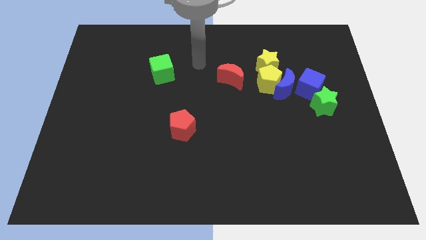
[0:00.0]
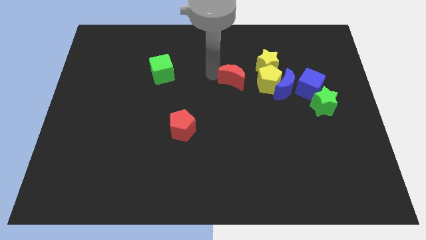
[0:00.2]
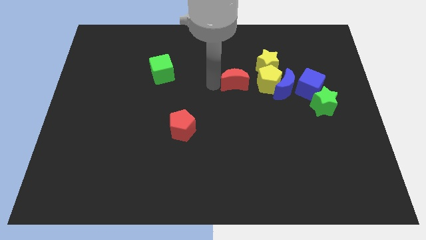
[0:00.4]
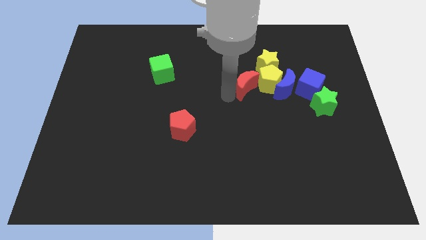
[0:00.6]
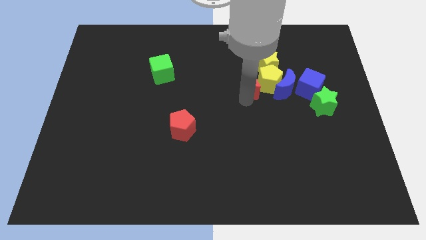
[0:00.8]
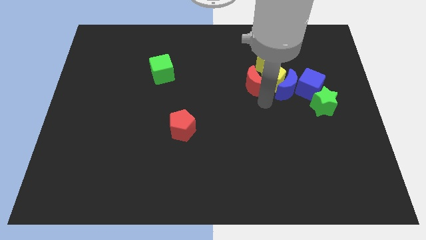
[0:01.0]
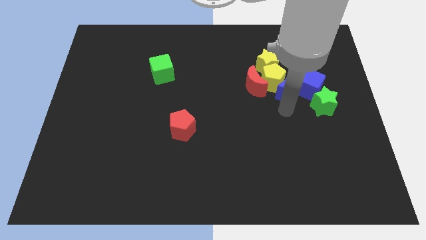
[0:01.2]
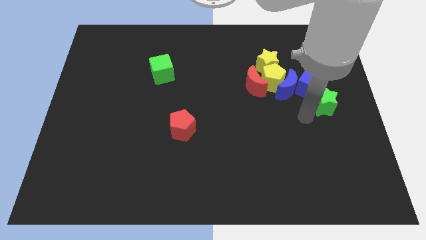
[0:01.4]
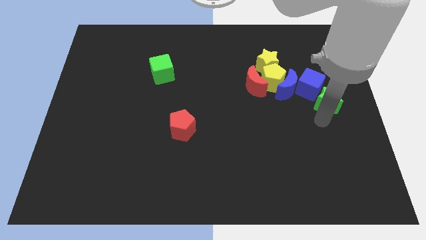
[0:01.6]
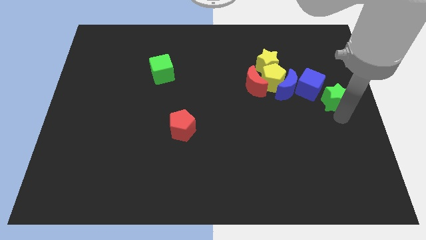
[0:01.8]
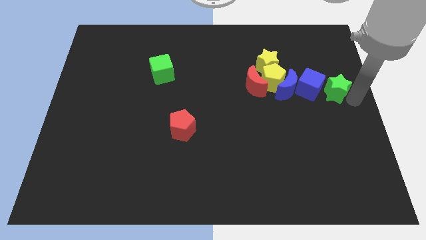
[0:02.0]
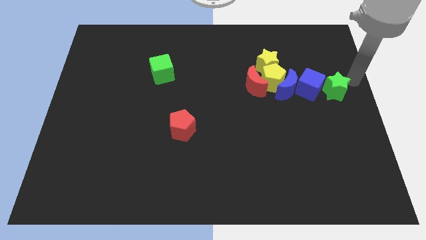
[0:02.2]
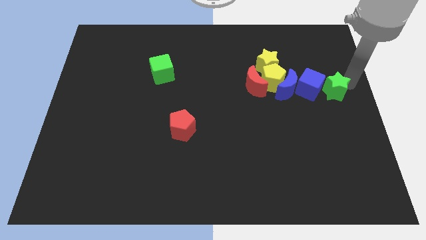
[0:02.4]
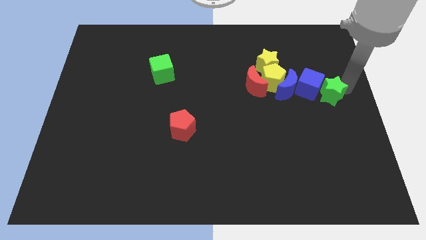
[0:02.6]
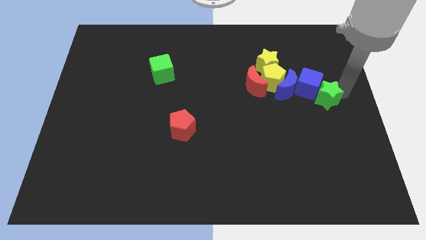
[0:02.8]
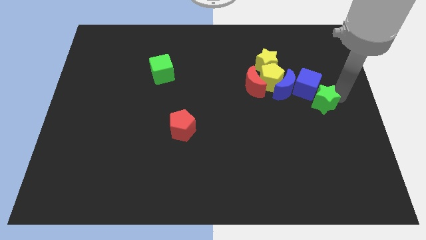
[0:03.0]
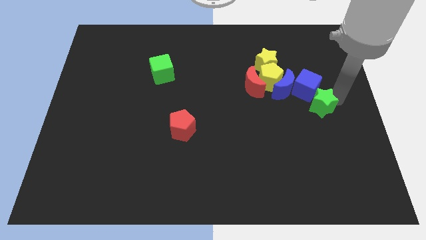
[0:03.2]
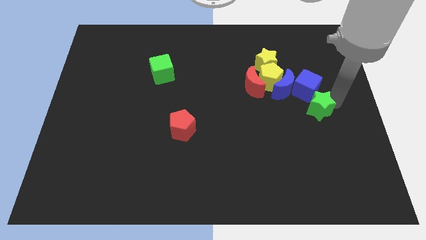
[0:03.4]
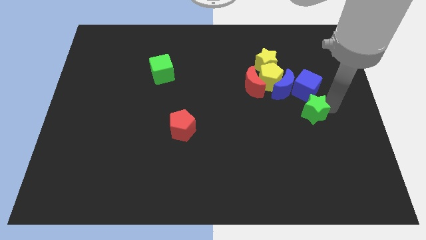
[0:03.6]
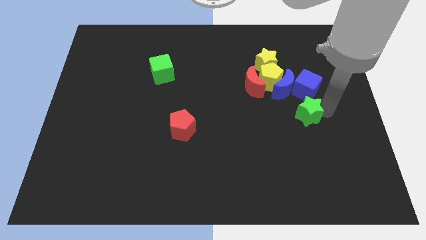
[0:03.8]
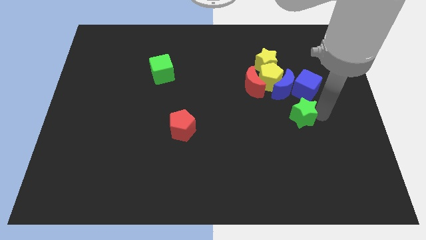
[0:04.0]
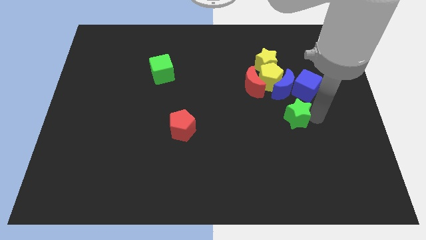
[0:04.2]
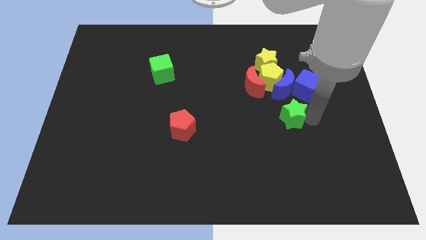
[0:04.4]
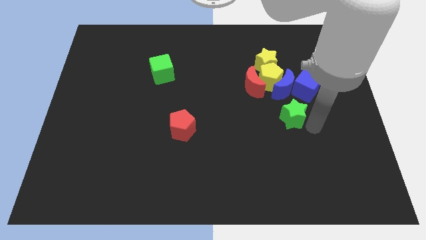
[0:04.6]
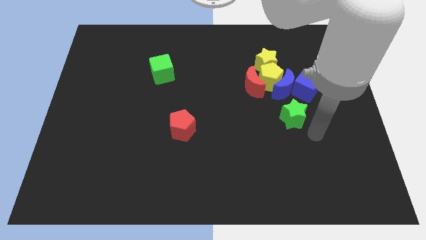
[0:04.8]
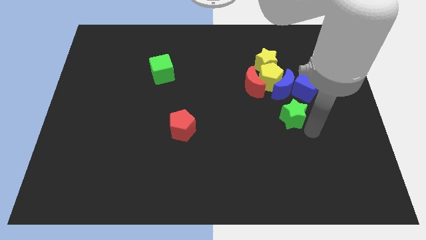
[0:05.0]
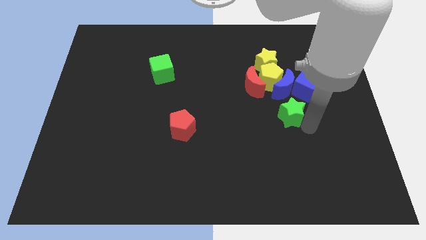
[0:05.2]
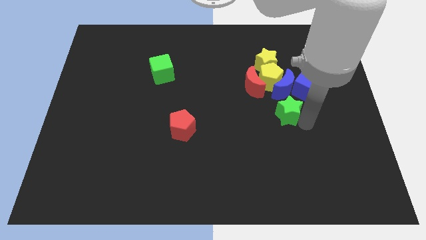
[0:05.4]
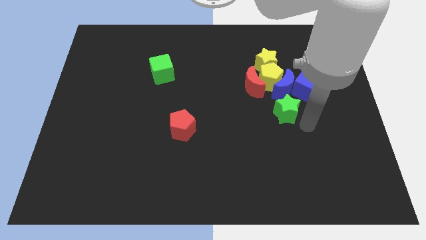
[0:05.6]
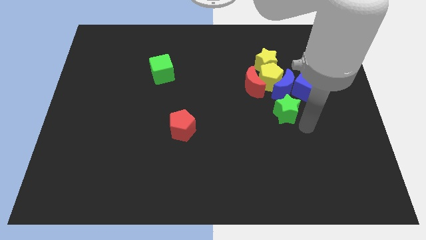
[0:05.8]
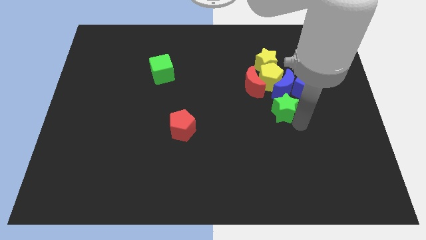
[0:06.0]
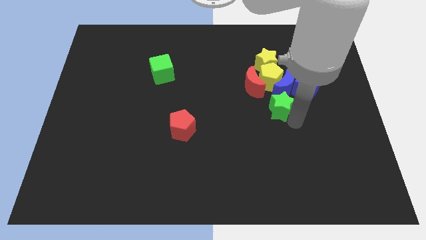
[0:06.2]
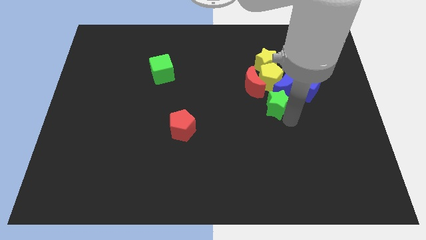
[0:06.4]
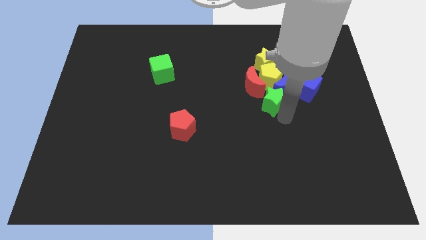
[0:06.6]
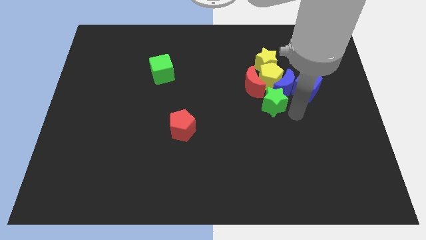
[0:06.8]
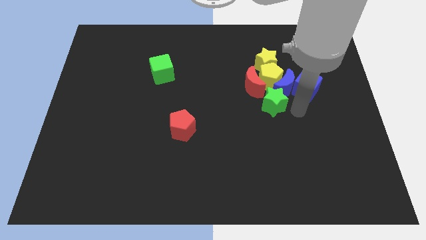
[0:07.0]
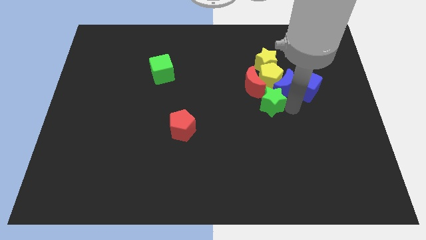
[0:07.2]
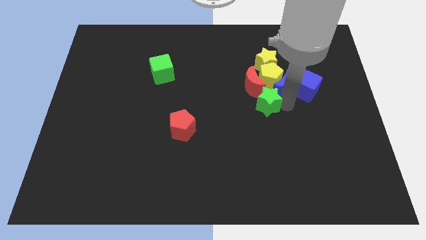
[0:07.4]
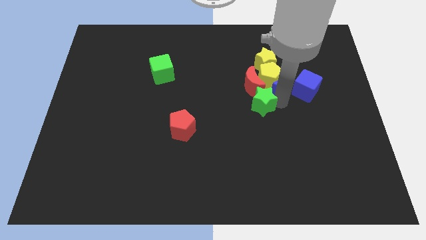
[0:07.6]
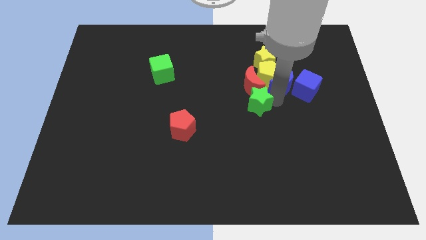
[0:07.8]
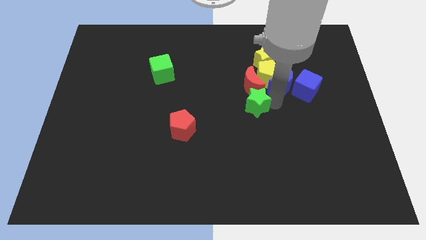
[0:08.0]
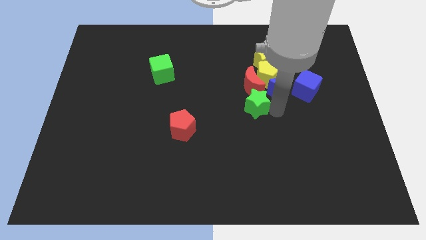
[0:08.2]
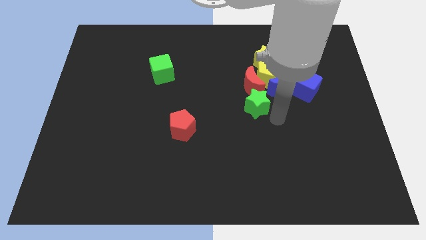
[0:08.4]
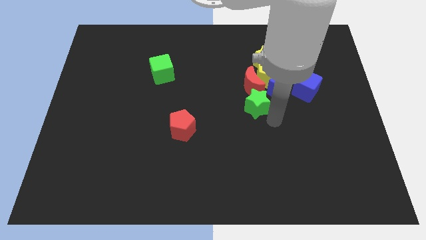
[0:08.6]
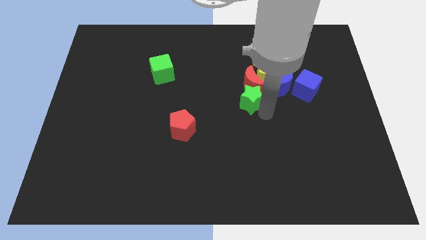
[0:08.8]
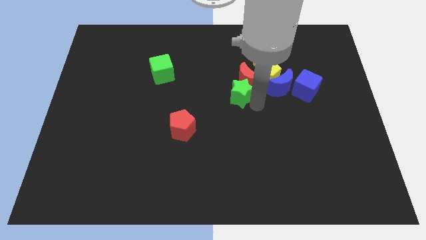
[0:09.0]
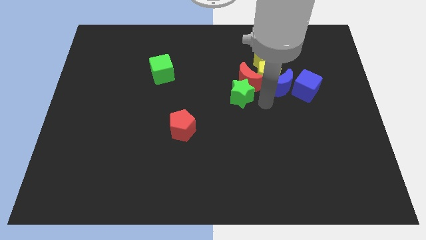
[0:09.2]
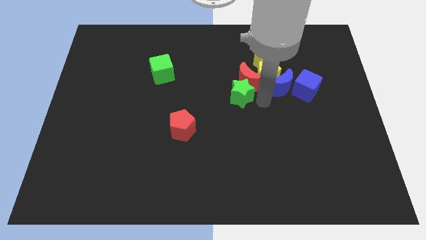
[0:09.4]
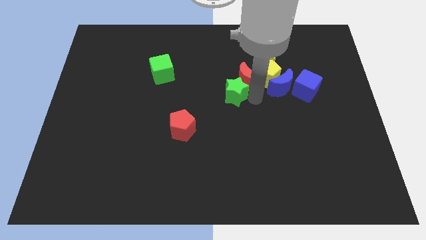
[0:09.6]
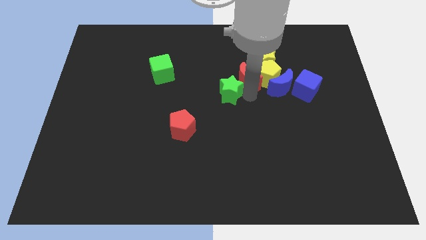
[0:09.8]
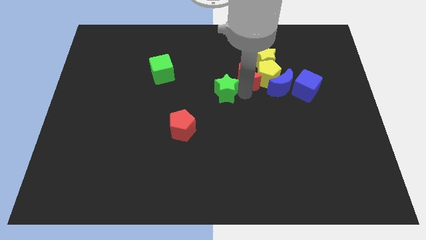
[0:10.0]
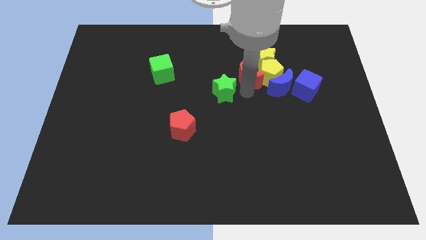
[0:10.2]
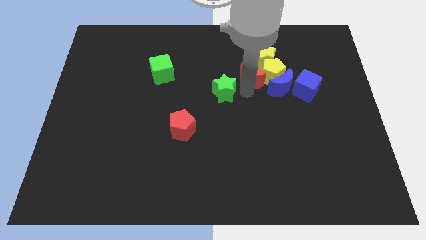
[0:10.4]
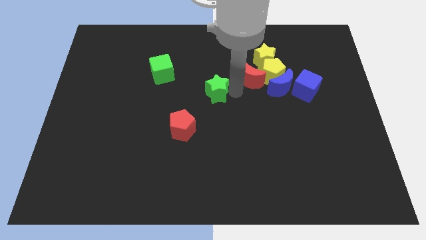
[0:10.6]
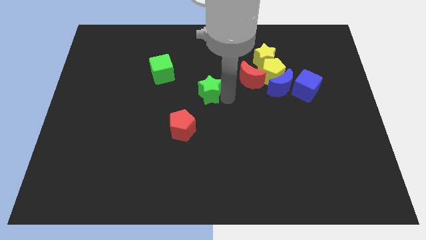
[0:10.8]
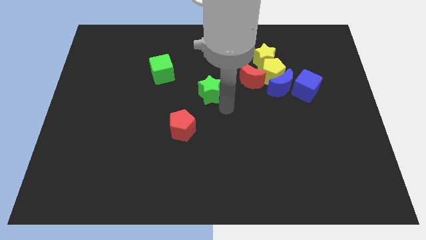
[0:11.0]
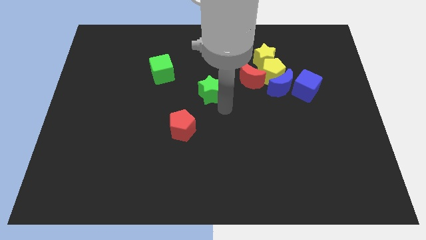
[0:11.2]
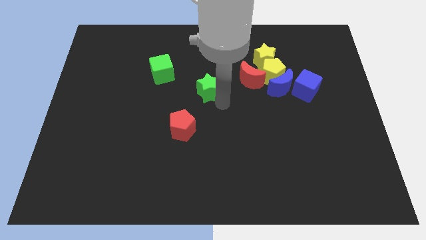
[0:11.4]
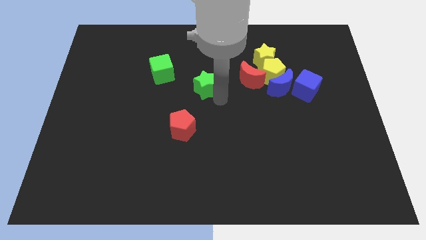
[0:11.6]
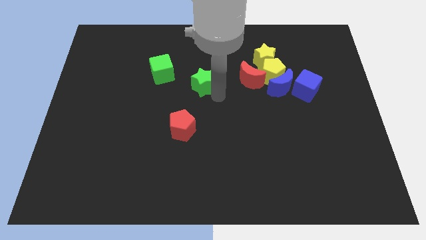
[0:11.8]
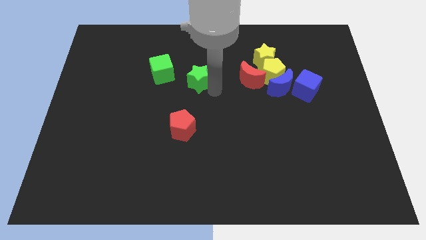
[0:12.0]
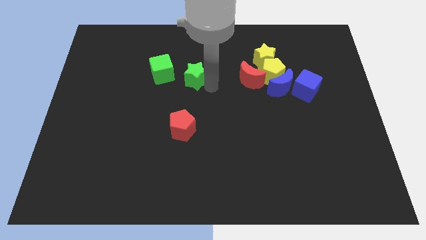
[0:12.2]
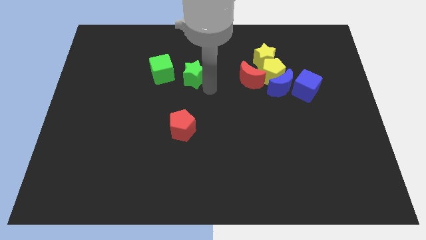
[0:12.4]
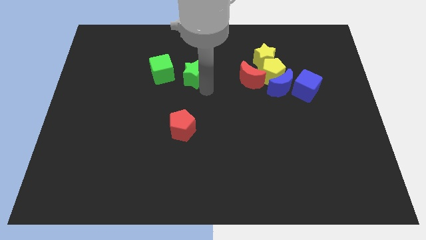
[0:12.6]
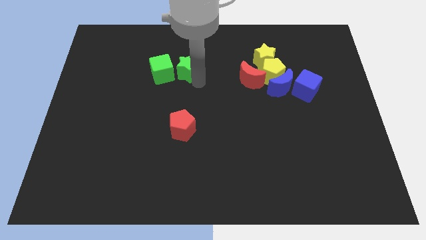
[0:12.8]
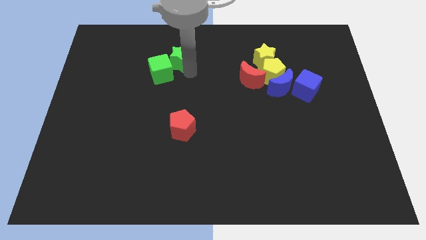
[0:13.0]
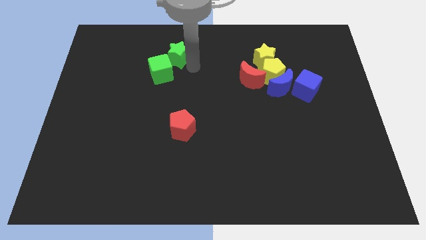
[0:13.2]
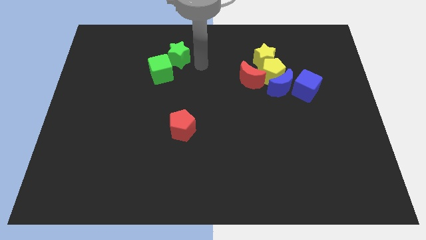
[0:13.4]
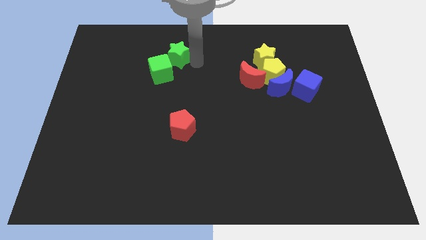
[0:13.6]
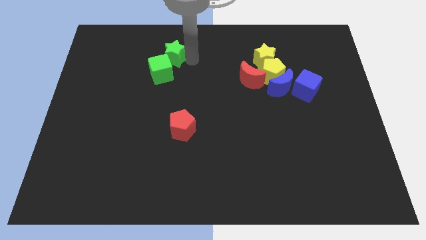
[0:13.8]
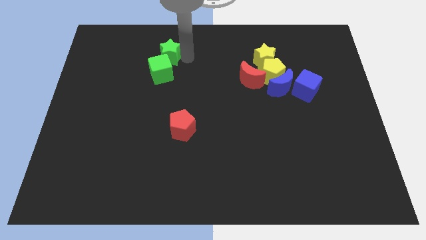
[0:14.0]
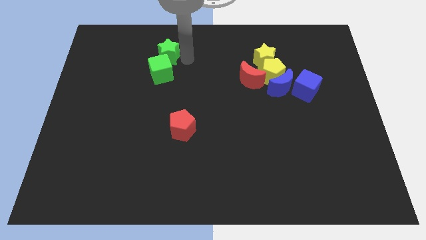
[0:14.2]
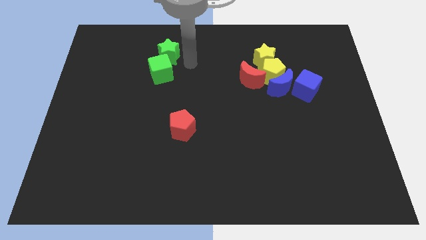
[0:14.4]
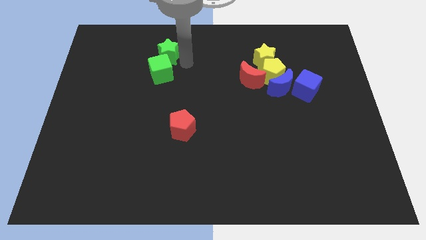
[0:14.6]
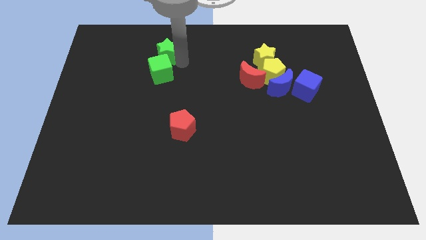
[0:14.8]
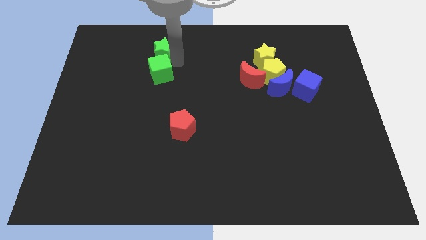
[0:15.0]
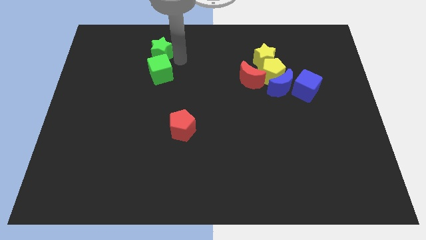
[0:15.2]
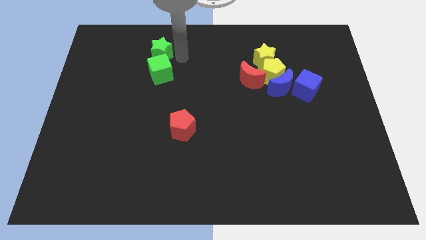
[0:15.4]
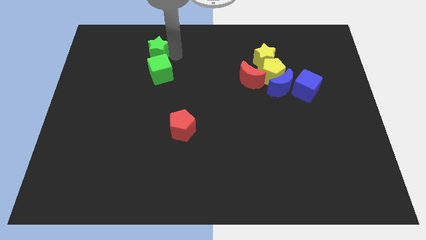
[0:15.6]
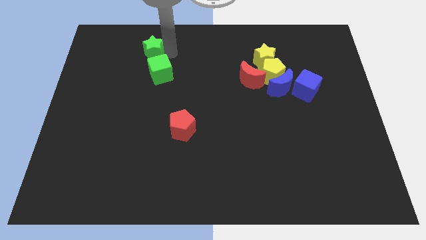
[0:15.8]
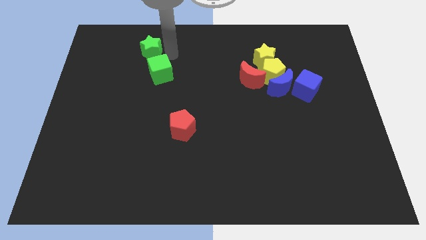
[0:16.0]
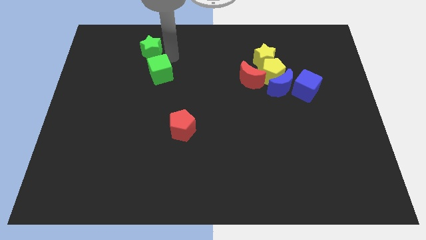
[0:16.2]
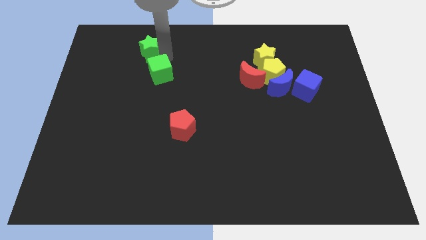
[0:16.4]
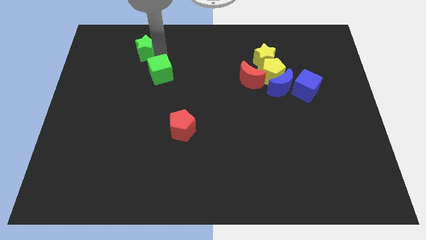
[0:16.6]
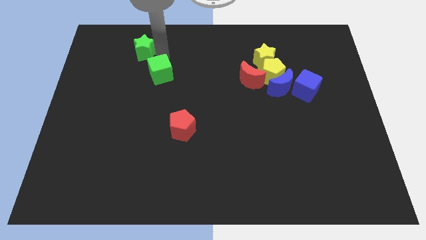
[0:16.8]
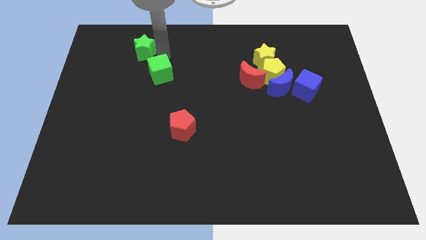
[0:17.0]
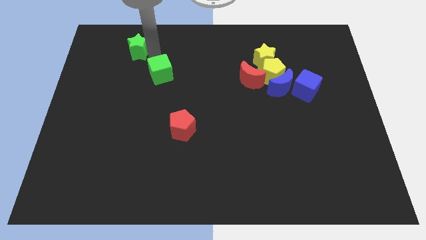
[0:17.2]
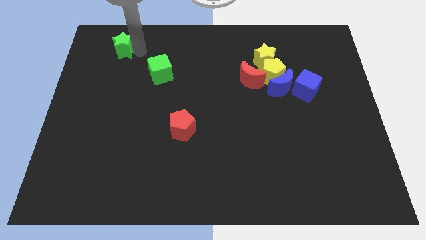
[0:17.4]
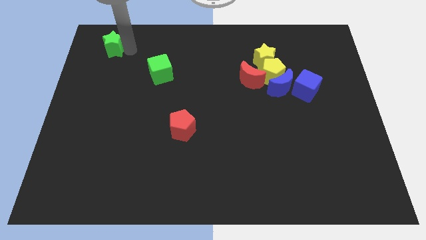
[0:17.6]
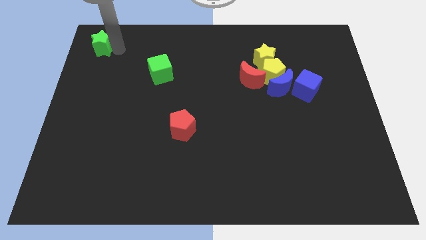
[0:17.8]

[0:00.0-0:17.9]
slide the green star to the upper left corner
